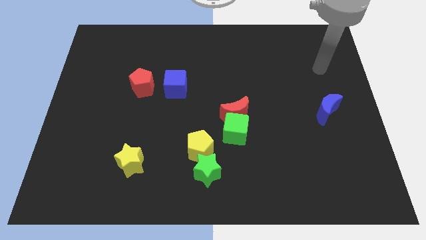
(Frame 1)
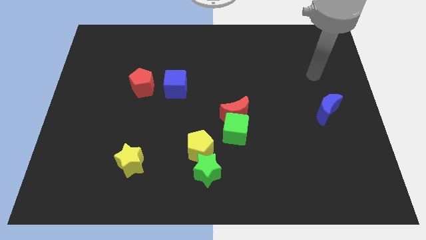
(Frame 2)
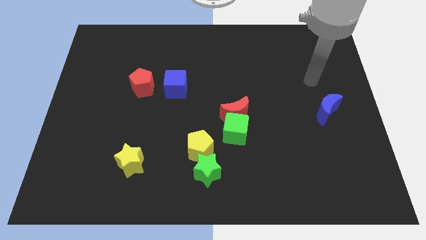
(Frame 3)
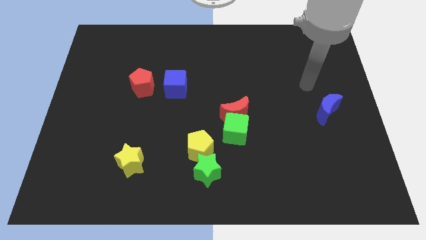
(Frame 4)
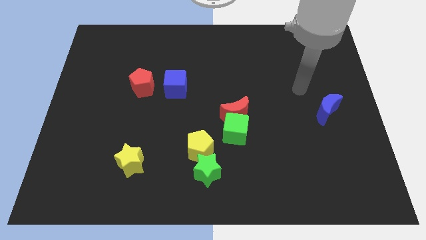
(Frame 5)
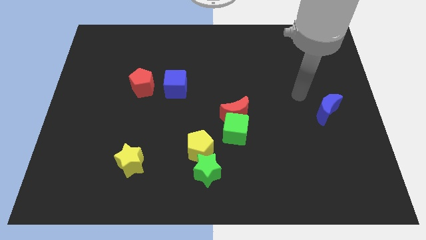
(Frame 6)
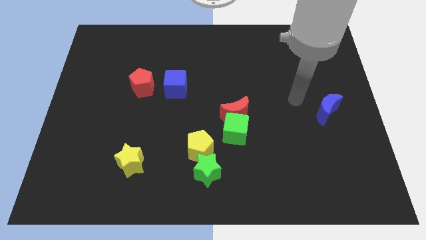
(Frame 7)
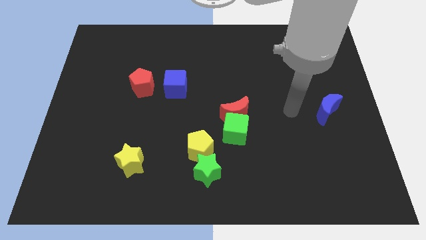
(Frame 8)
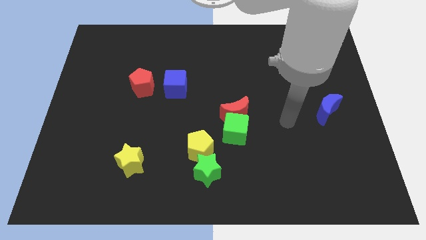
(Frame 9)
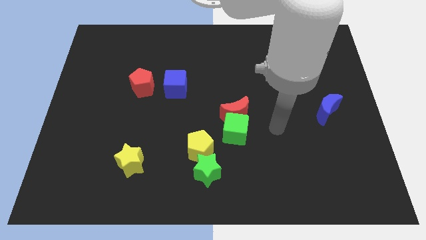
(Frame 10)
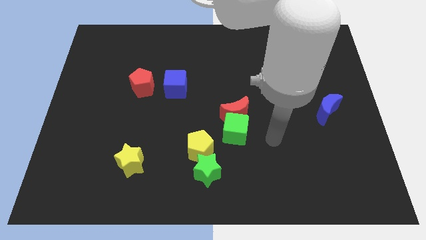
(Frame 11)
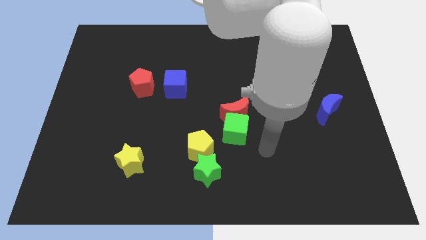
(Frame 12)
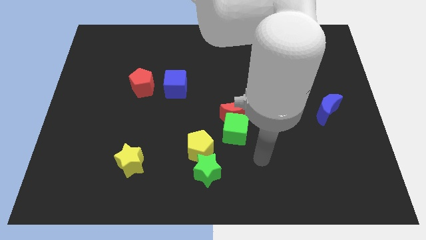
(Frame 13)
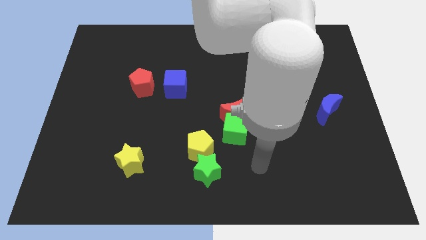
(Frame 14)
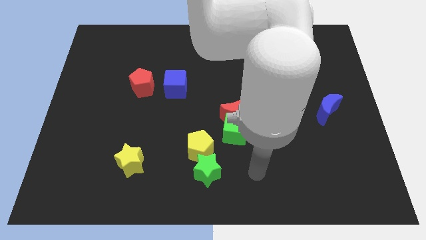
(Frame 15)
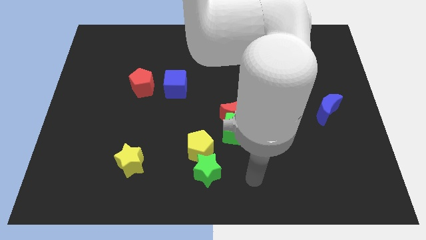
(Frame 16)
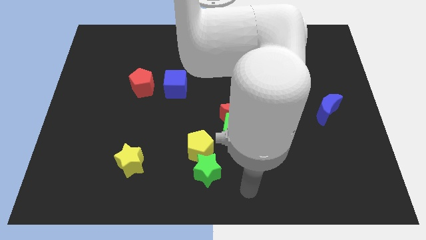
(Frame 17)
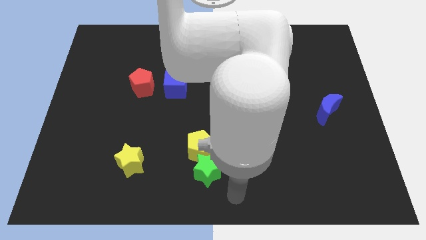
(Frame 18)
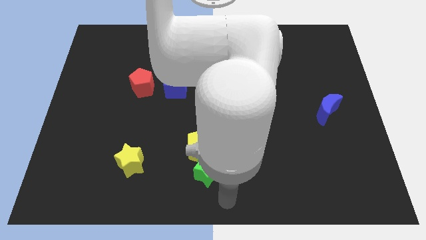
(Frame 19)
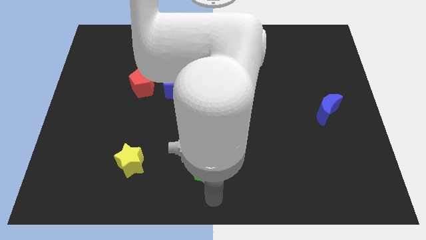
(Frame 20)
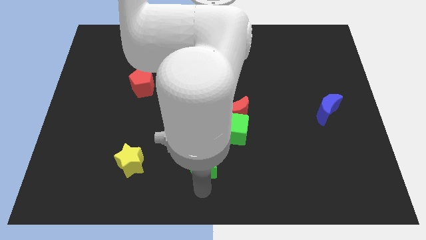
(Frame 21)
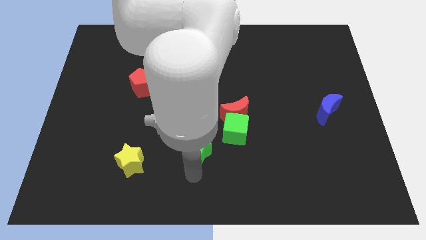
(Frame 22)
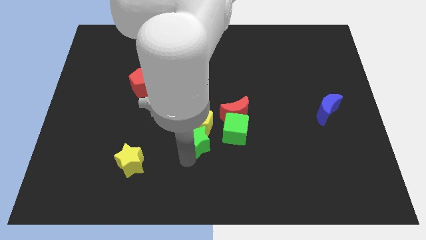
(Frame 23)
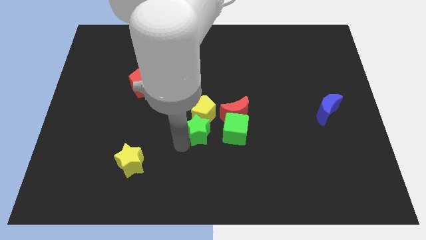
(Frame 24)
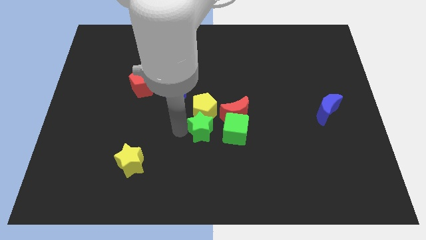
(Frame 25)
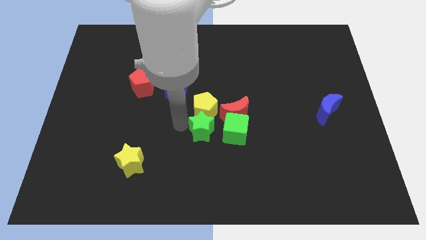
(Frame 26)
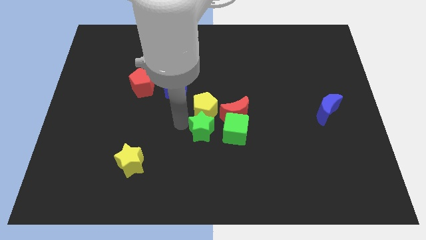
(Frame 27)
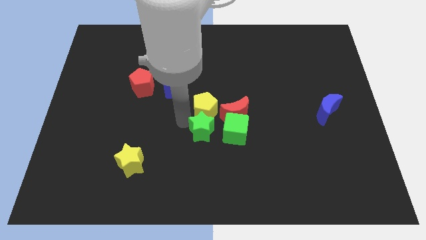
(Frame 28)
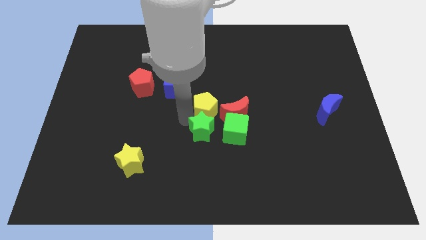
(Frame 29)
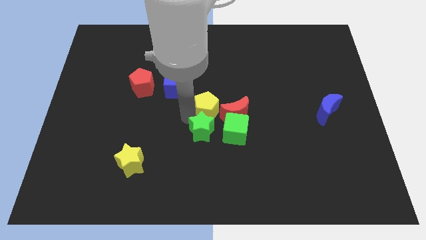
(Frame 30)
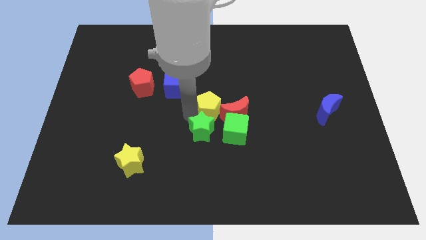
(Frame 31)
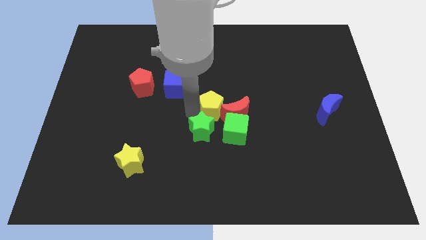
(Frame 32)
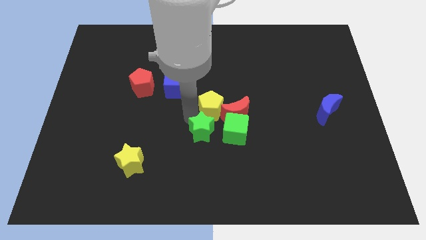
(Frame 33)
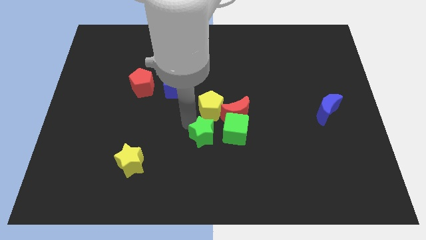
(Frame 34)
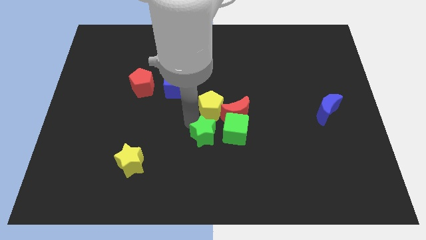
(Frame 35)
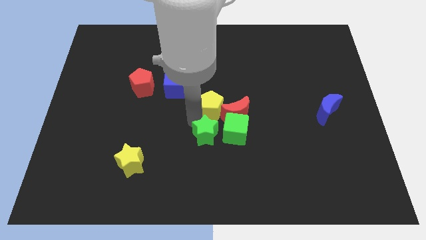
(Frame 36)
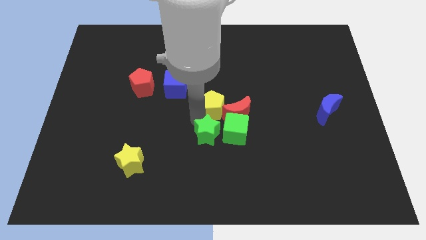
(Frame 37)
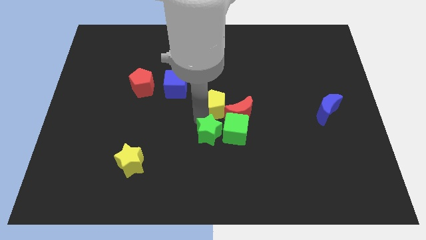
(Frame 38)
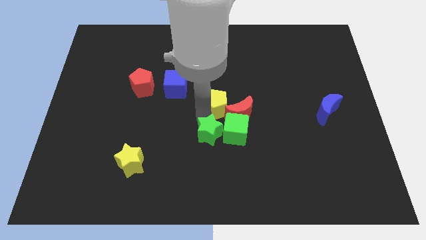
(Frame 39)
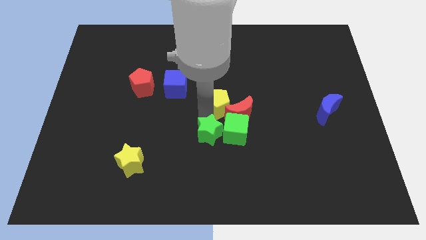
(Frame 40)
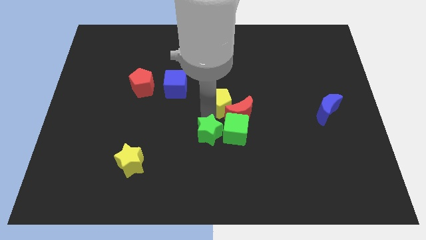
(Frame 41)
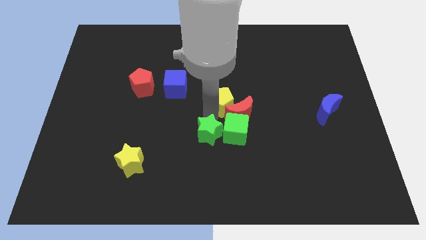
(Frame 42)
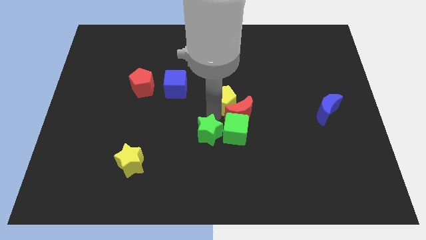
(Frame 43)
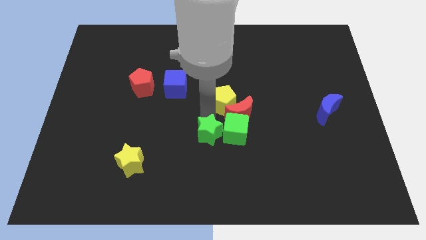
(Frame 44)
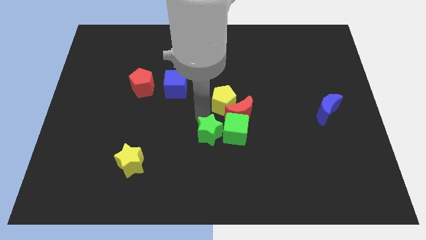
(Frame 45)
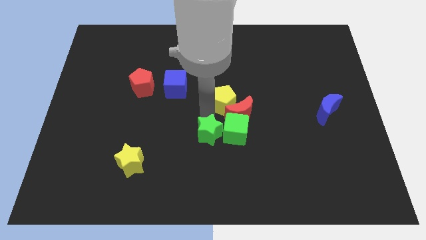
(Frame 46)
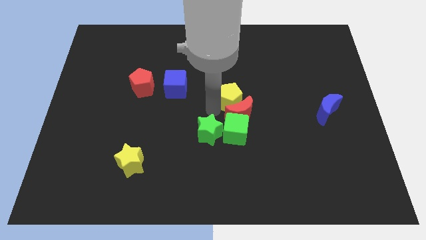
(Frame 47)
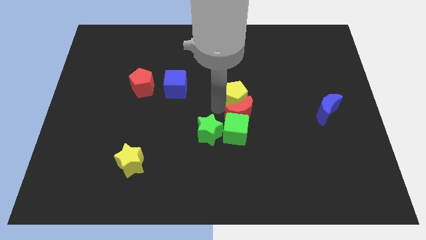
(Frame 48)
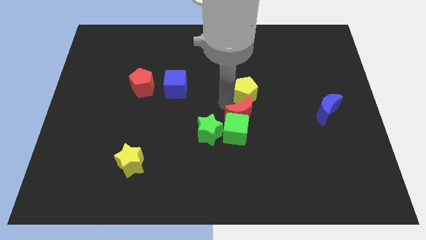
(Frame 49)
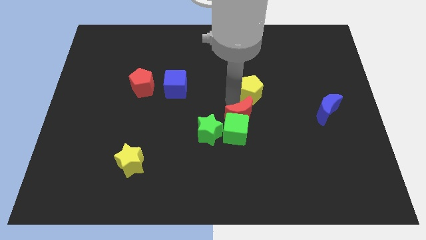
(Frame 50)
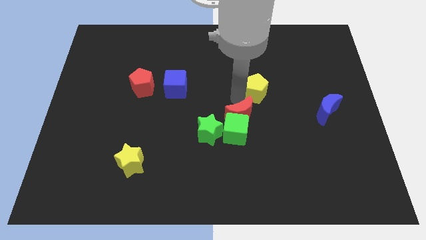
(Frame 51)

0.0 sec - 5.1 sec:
move the yellow pentagon diagonally upwards and right

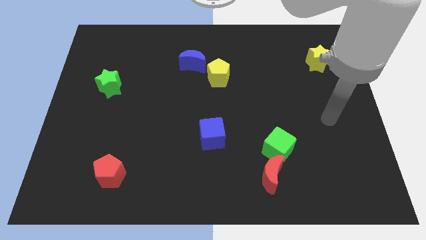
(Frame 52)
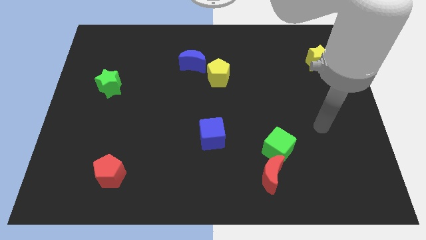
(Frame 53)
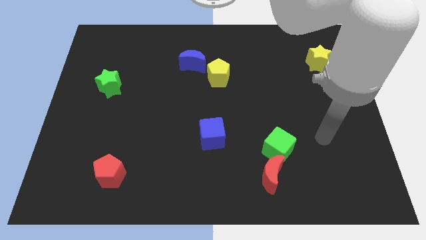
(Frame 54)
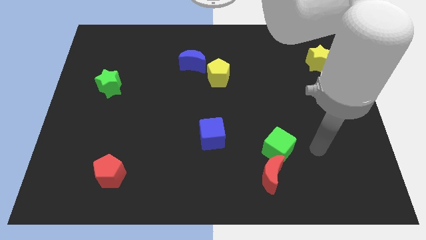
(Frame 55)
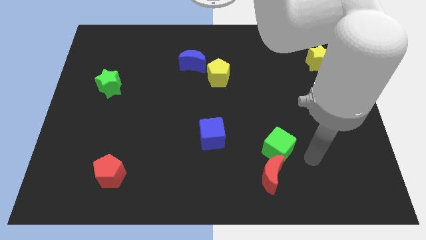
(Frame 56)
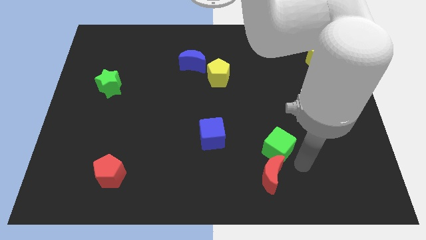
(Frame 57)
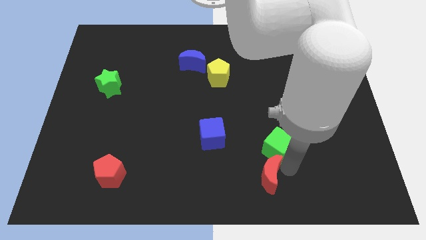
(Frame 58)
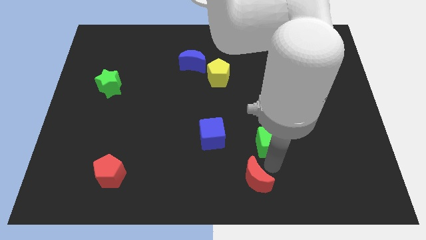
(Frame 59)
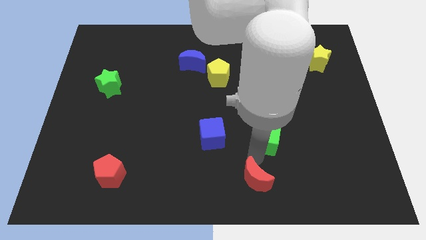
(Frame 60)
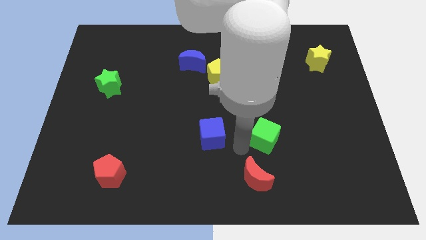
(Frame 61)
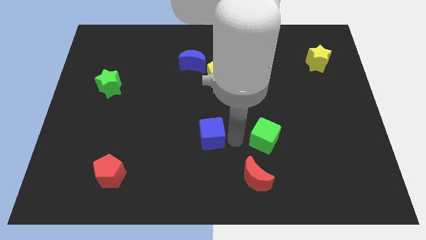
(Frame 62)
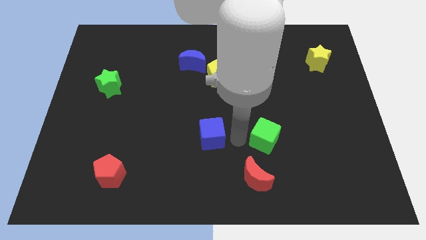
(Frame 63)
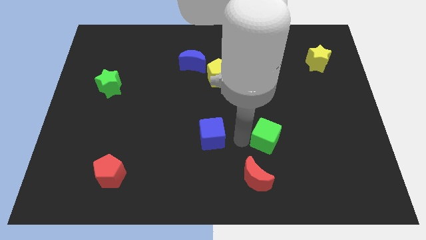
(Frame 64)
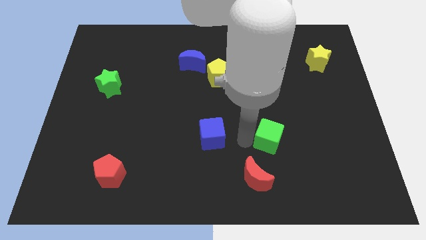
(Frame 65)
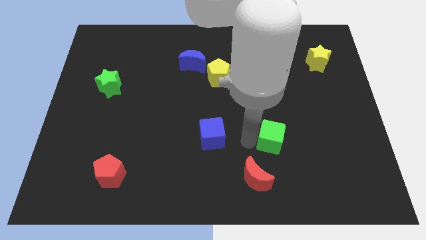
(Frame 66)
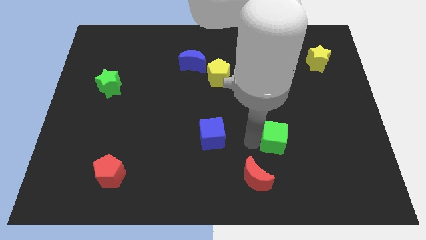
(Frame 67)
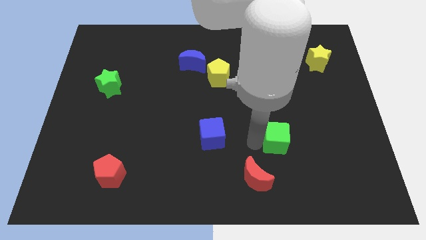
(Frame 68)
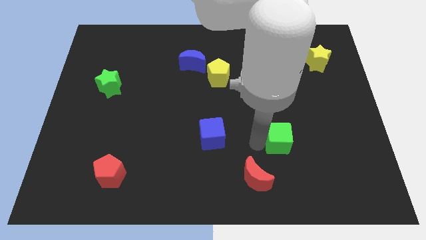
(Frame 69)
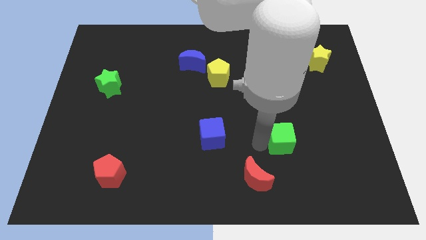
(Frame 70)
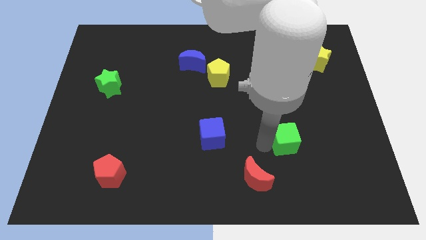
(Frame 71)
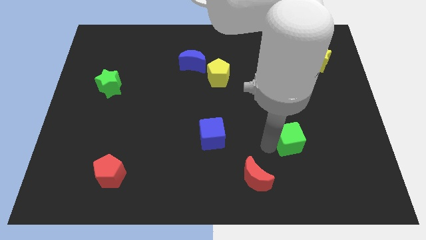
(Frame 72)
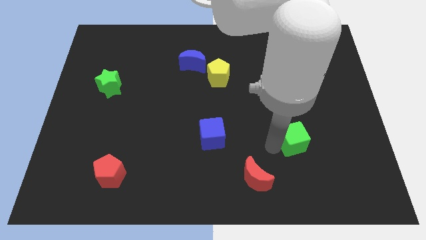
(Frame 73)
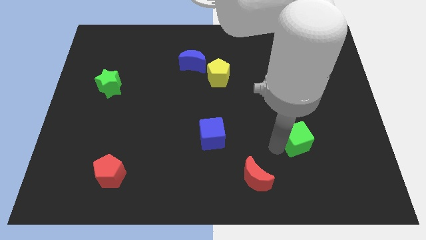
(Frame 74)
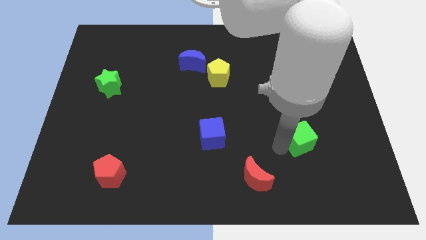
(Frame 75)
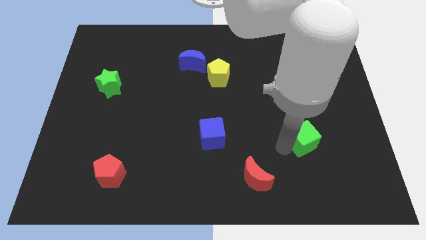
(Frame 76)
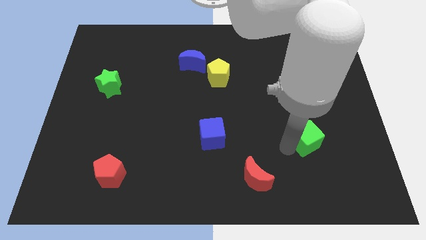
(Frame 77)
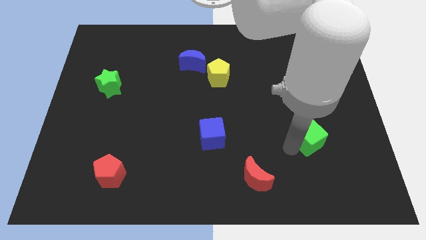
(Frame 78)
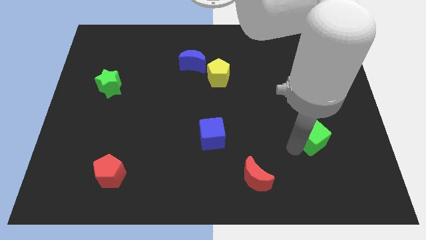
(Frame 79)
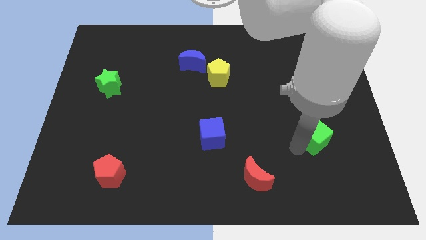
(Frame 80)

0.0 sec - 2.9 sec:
move the green cube a little bit upwards and to the right
